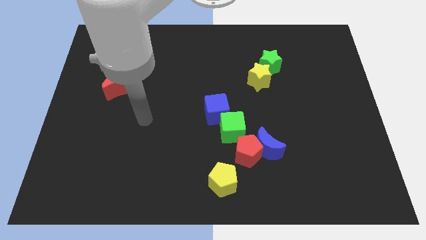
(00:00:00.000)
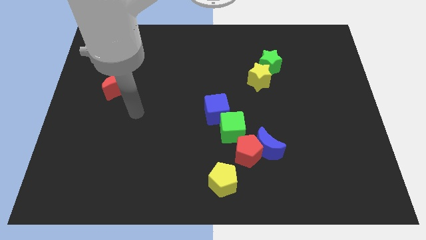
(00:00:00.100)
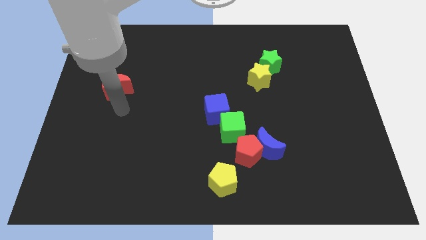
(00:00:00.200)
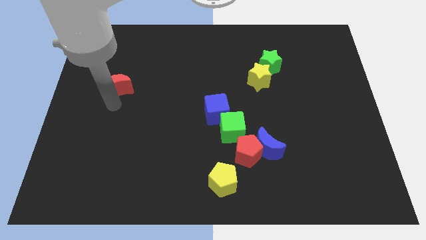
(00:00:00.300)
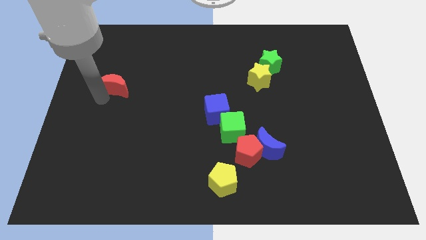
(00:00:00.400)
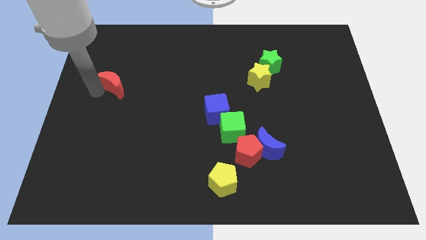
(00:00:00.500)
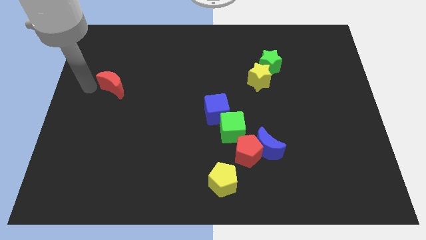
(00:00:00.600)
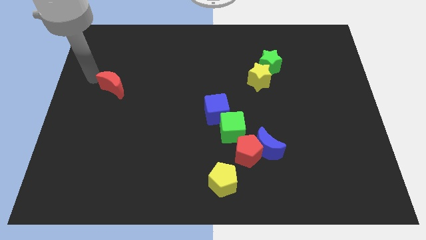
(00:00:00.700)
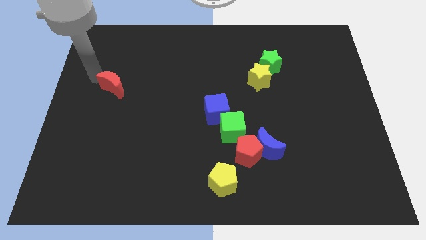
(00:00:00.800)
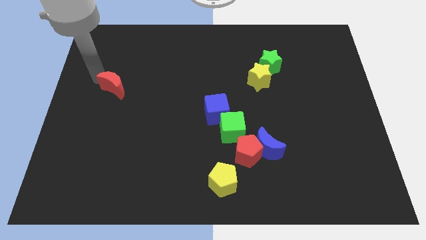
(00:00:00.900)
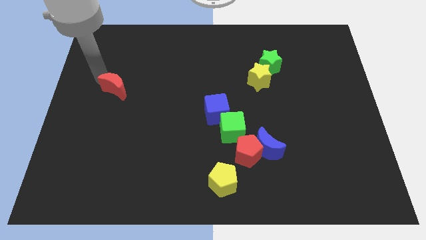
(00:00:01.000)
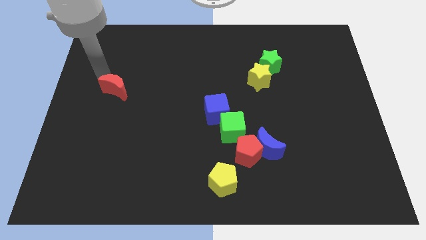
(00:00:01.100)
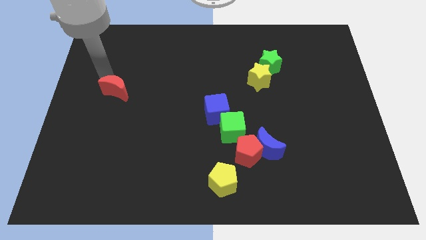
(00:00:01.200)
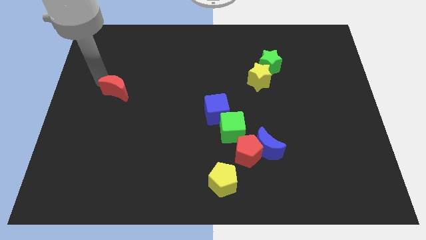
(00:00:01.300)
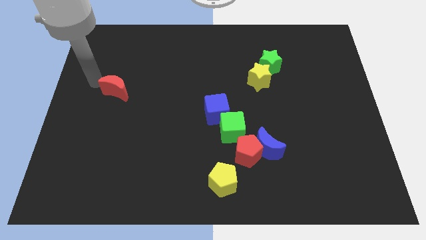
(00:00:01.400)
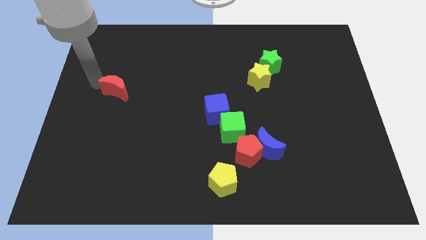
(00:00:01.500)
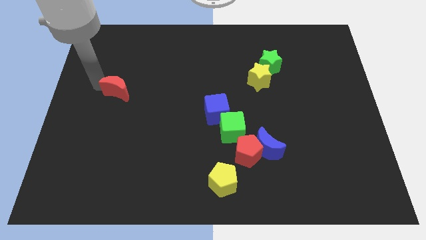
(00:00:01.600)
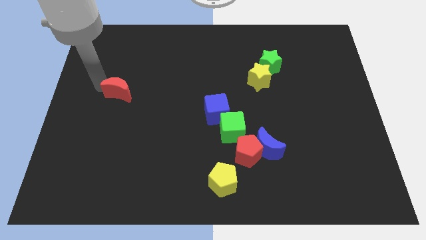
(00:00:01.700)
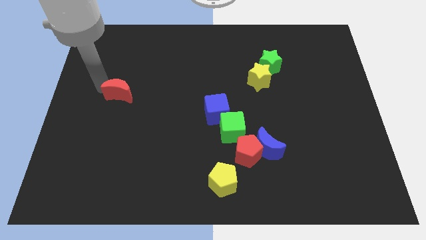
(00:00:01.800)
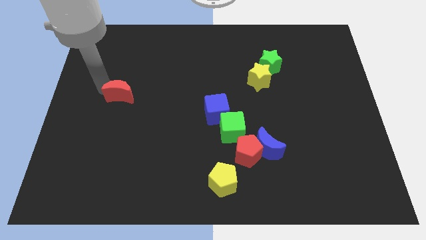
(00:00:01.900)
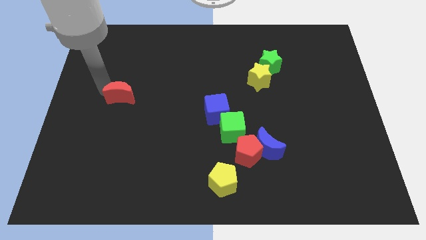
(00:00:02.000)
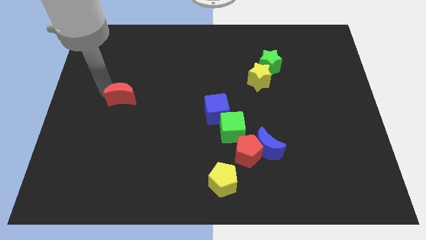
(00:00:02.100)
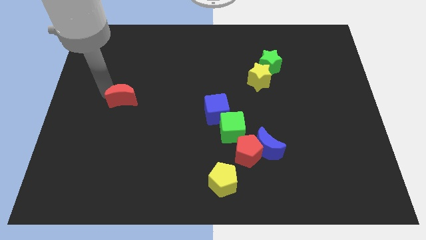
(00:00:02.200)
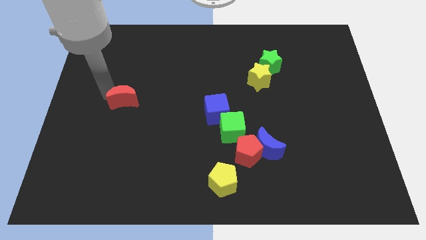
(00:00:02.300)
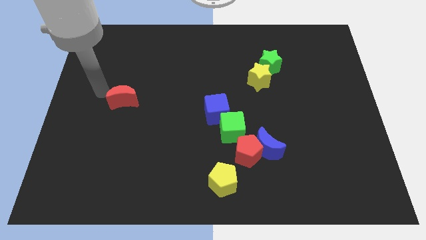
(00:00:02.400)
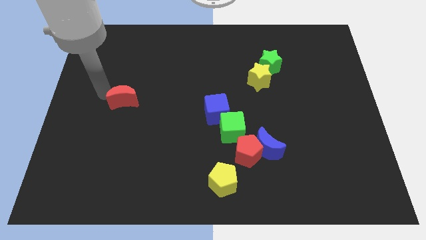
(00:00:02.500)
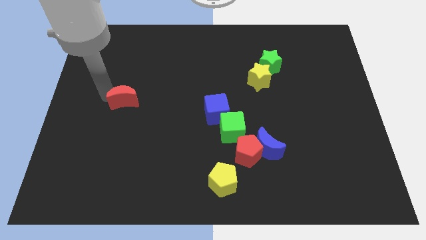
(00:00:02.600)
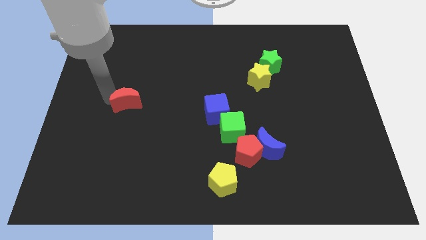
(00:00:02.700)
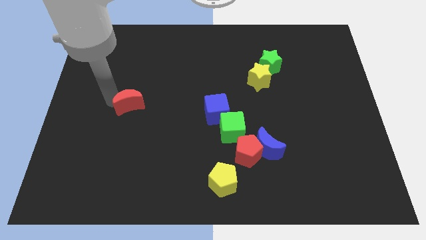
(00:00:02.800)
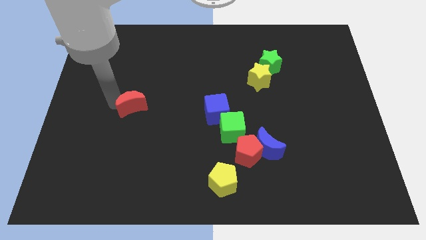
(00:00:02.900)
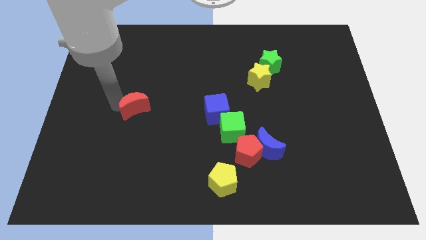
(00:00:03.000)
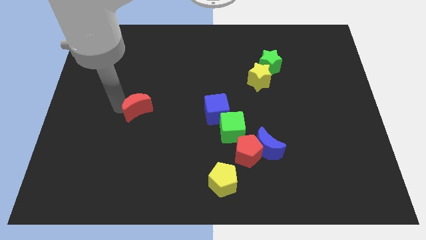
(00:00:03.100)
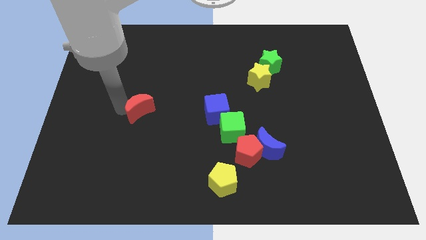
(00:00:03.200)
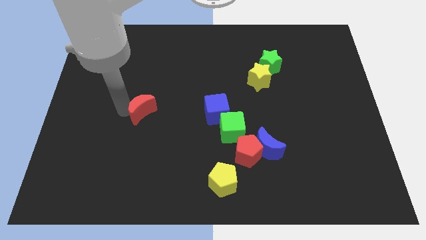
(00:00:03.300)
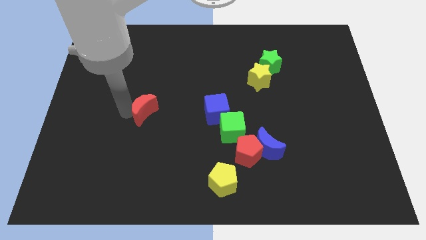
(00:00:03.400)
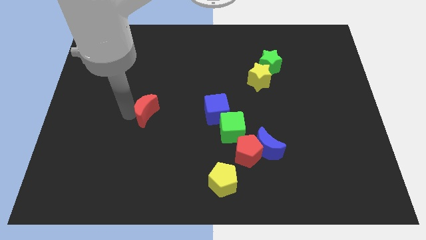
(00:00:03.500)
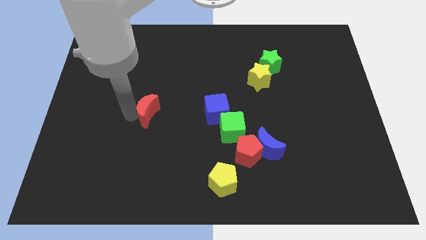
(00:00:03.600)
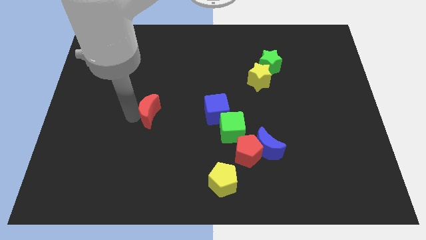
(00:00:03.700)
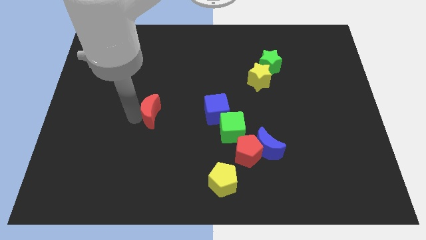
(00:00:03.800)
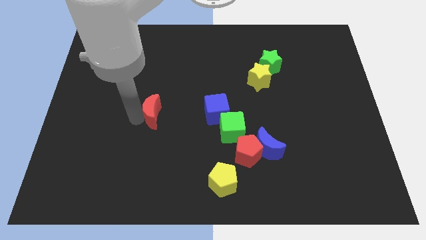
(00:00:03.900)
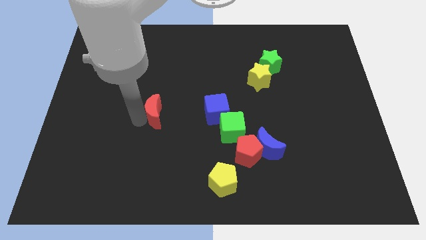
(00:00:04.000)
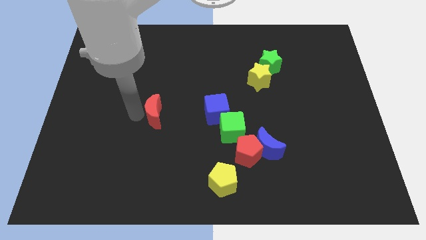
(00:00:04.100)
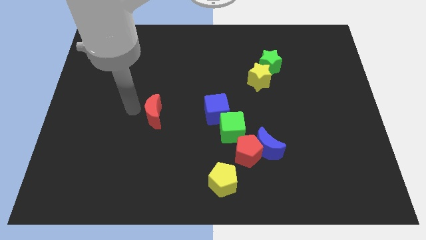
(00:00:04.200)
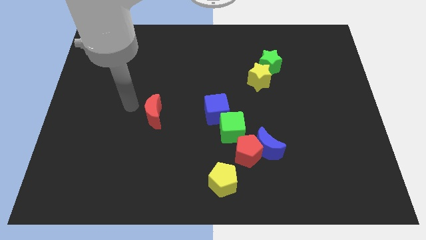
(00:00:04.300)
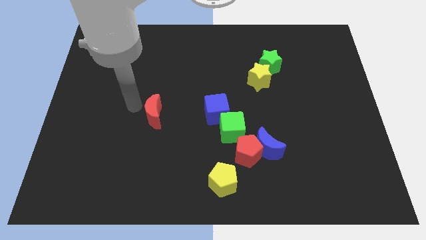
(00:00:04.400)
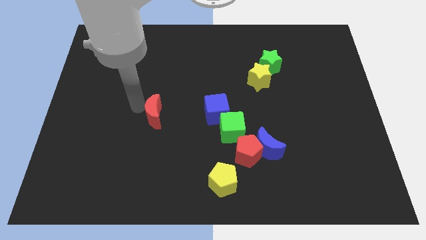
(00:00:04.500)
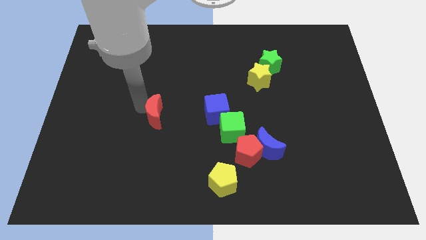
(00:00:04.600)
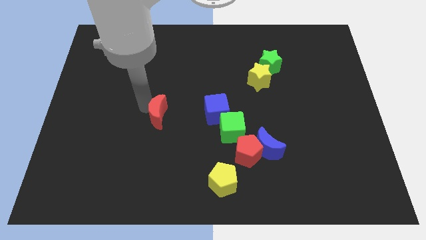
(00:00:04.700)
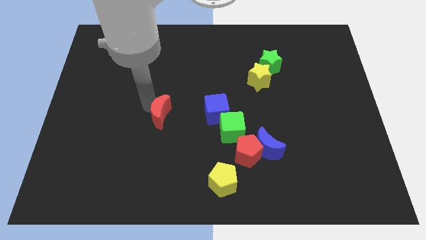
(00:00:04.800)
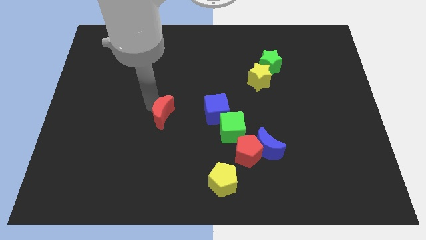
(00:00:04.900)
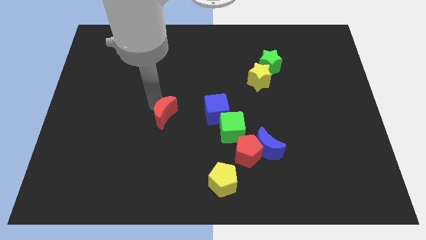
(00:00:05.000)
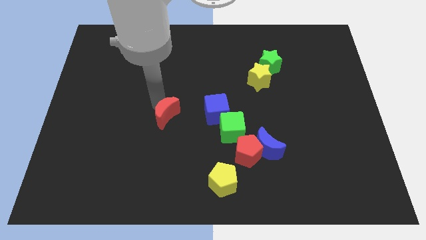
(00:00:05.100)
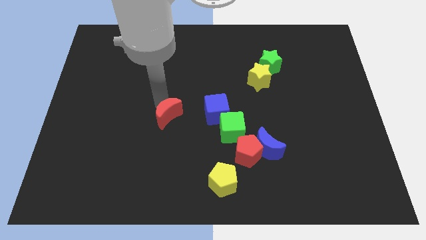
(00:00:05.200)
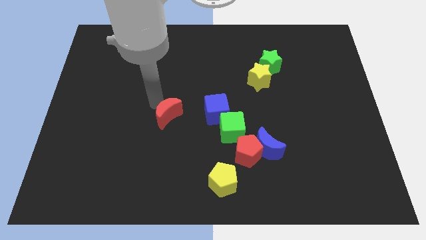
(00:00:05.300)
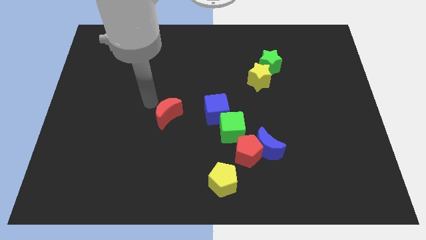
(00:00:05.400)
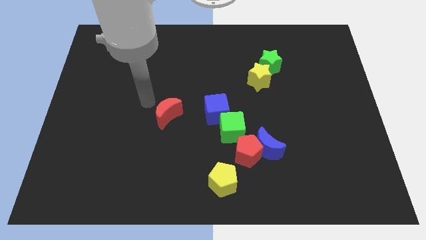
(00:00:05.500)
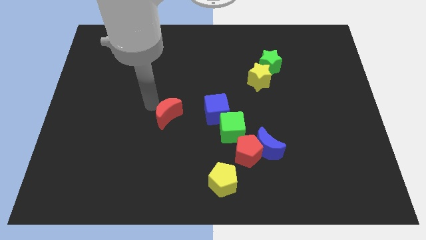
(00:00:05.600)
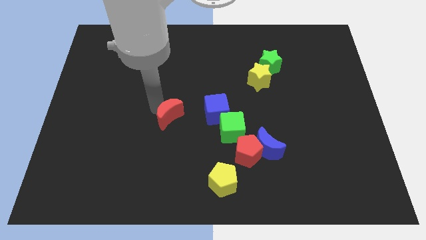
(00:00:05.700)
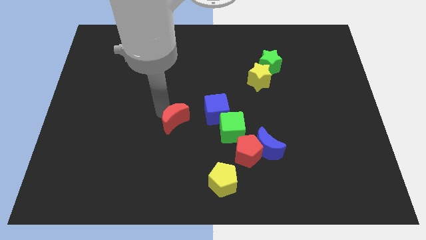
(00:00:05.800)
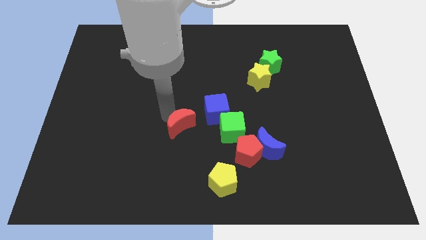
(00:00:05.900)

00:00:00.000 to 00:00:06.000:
push the red moon diagonally down and to the left of the blue cube
